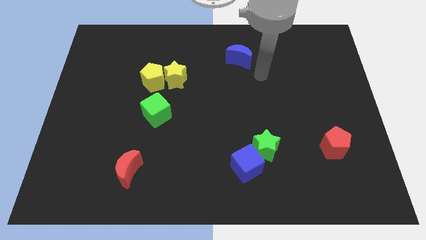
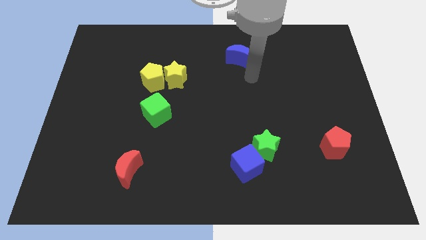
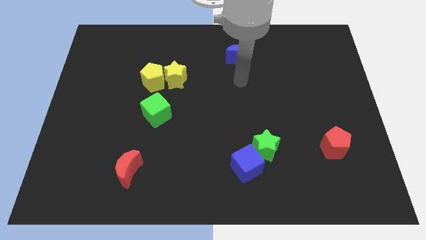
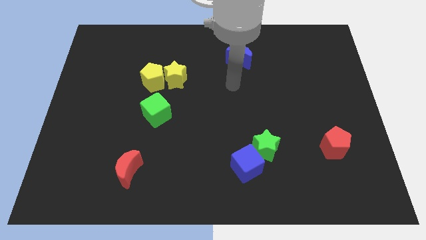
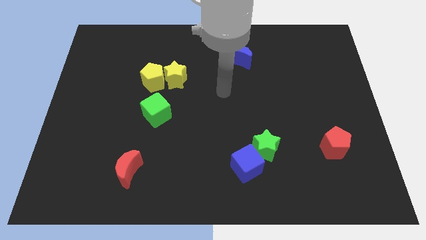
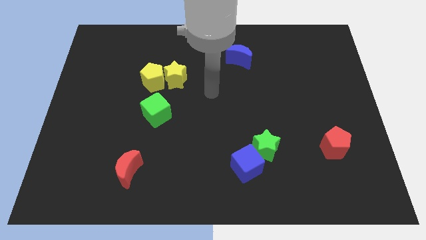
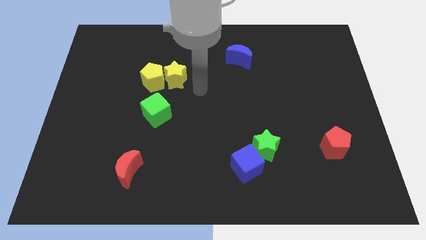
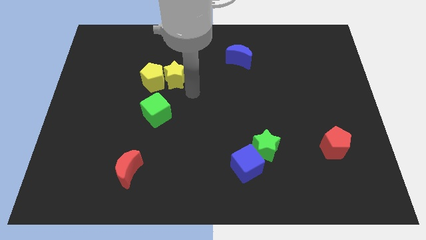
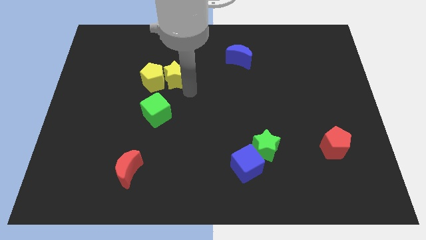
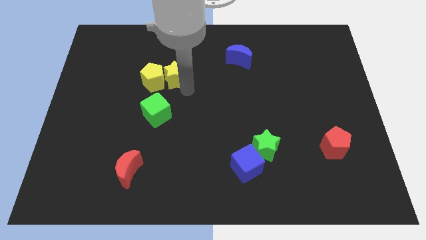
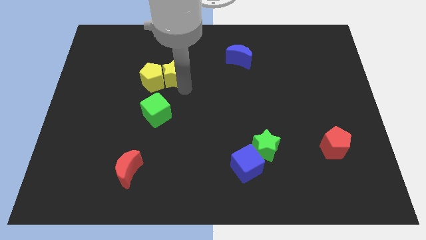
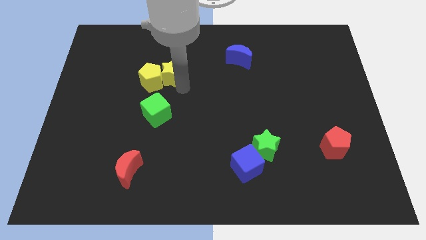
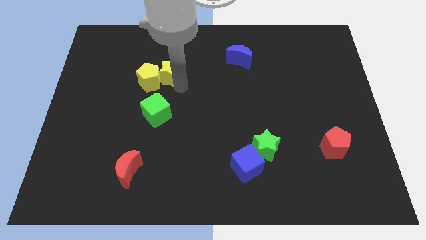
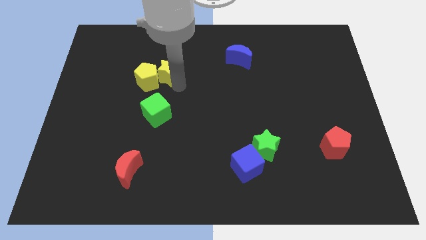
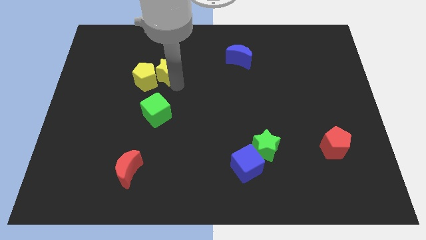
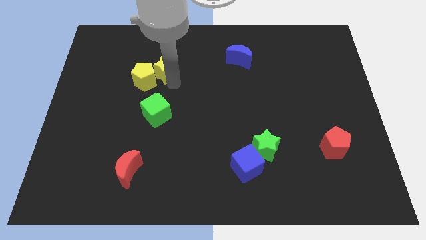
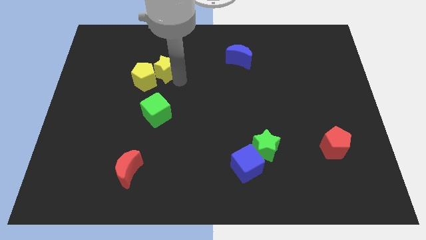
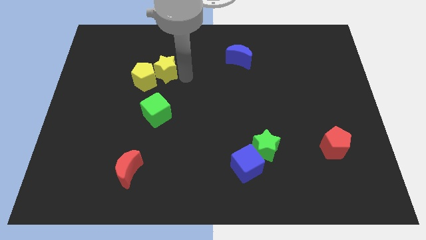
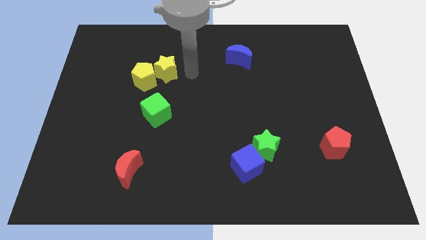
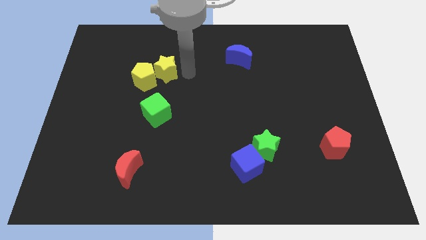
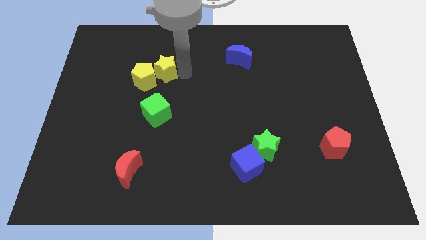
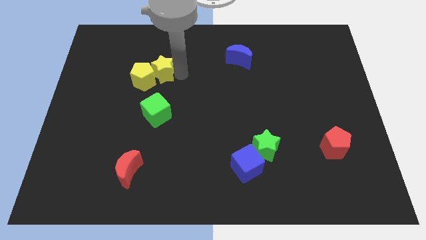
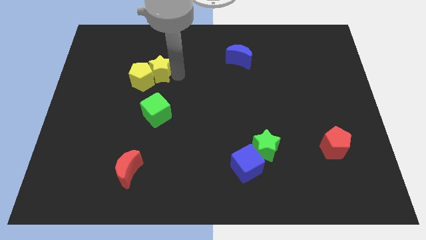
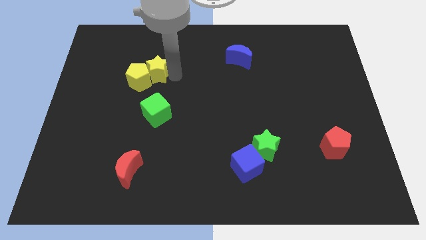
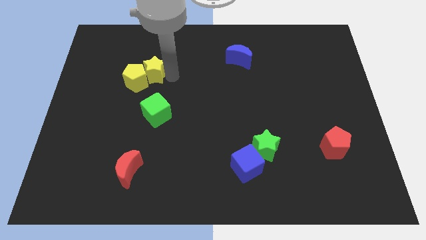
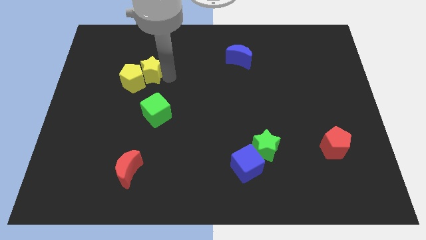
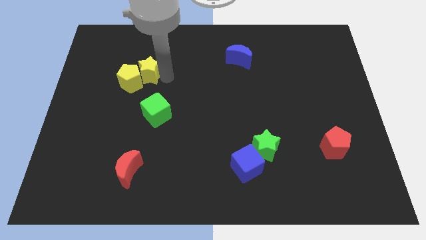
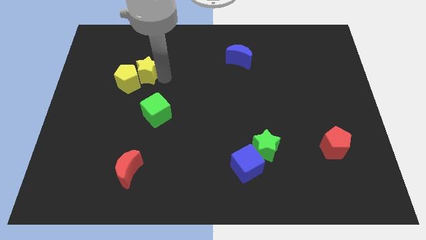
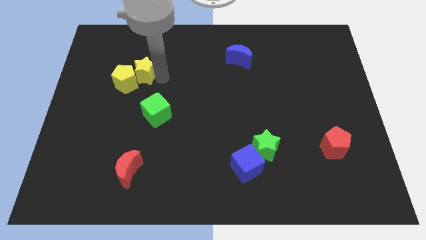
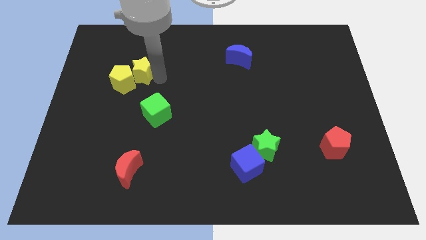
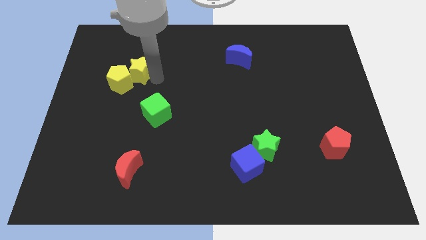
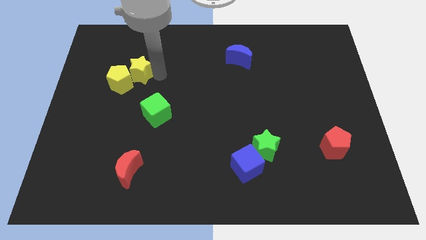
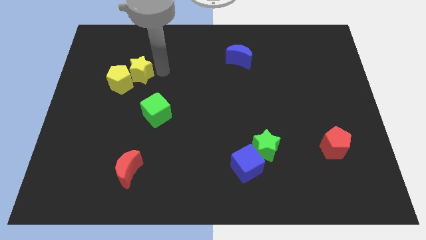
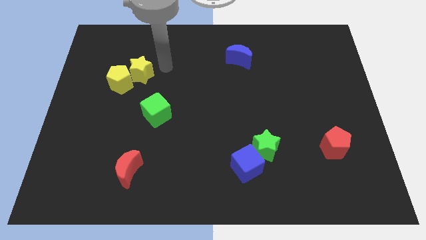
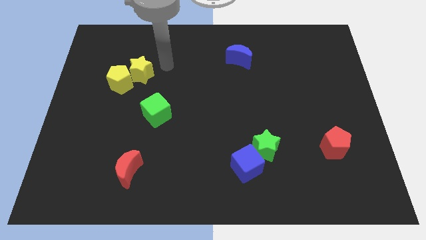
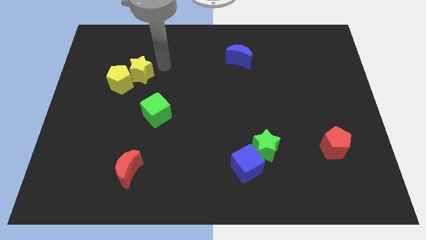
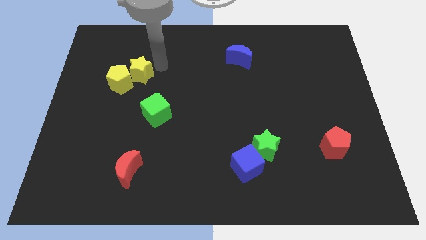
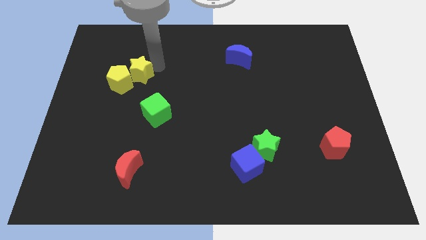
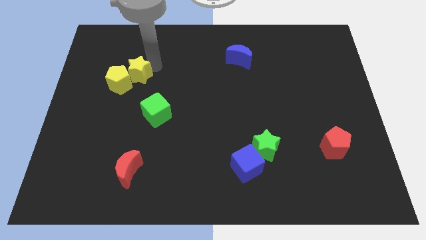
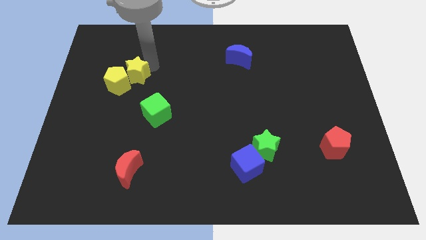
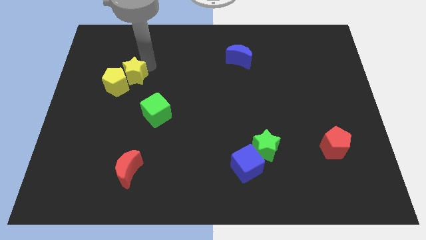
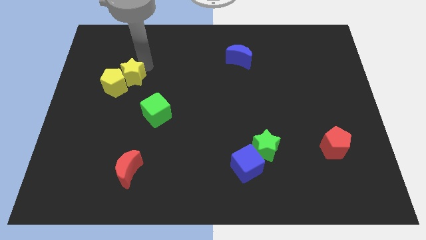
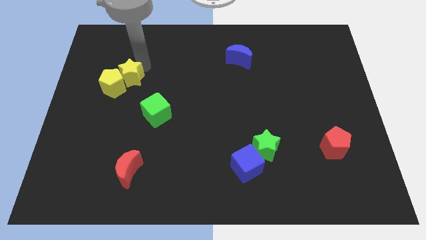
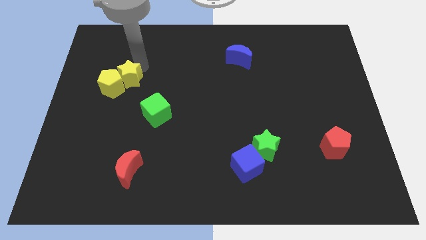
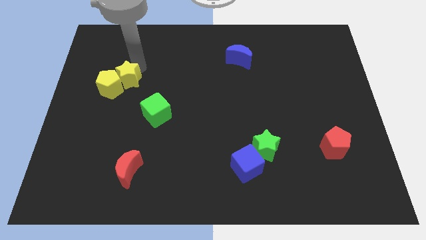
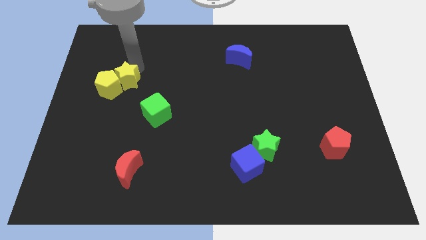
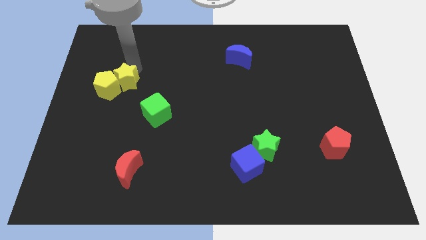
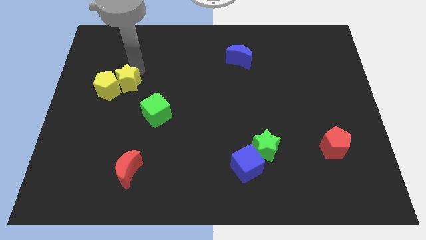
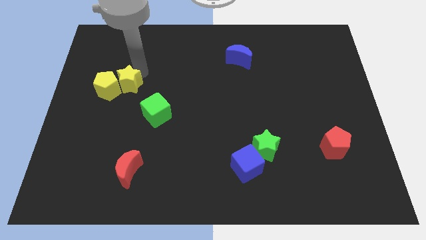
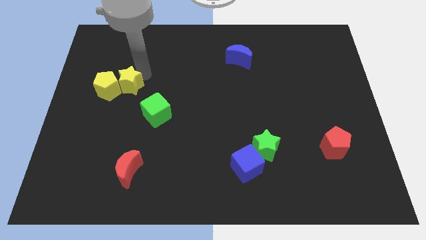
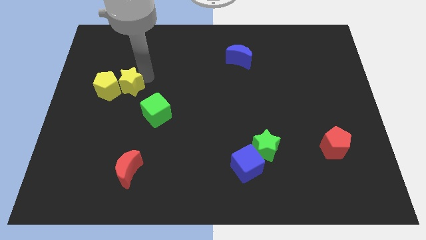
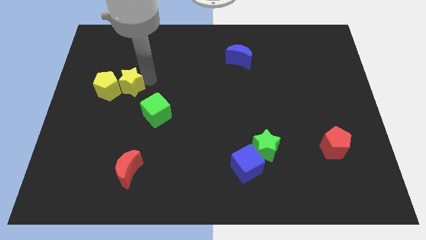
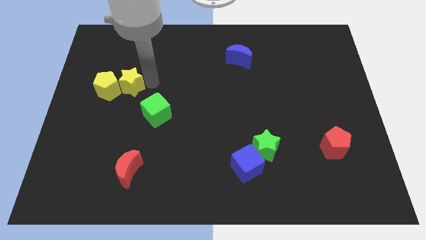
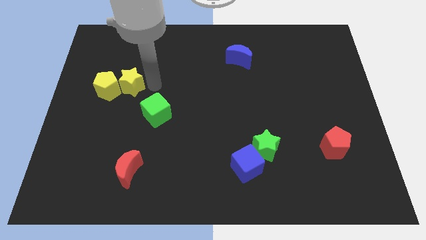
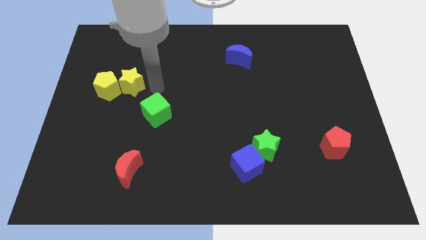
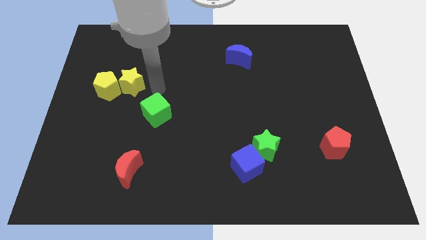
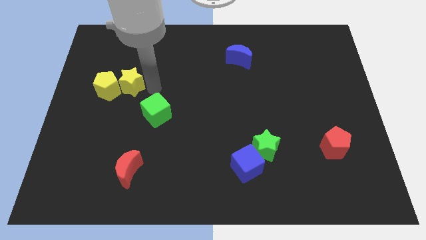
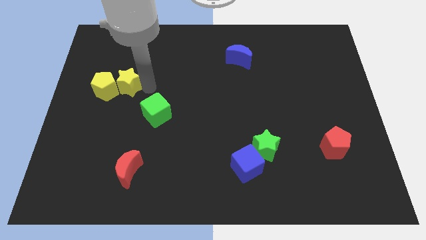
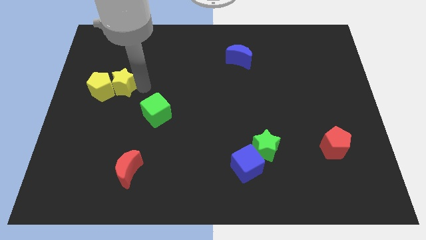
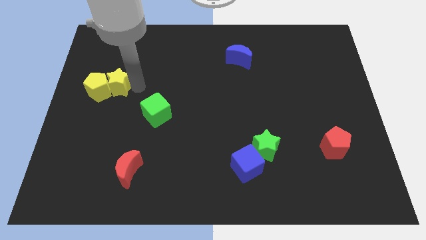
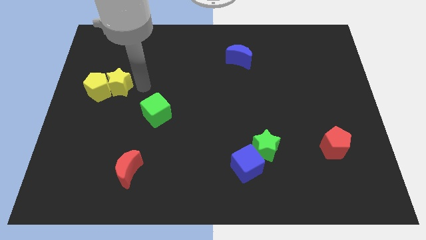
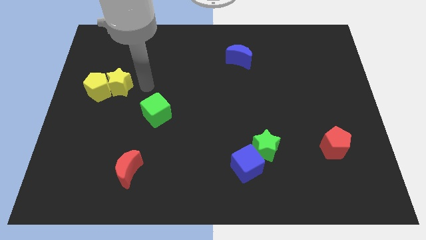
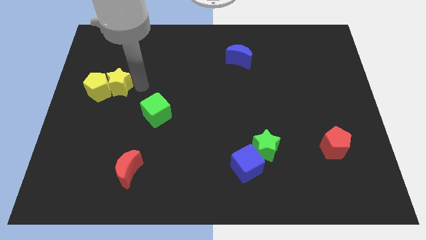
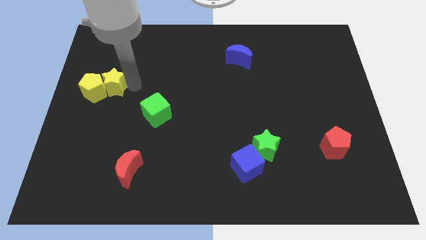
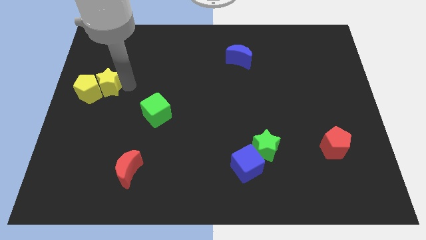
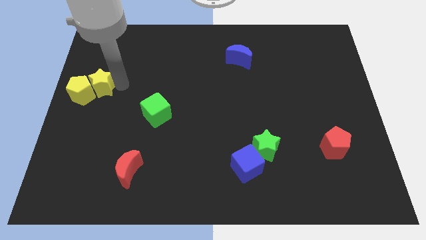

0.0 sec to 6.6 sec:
move the yellow star to the left side of the board
